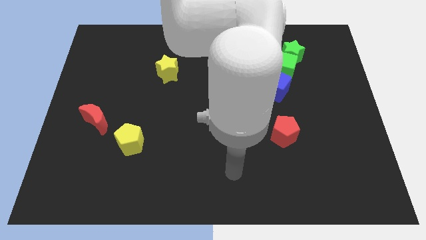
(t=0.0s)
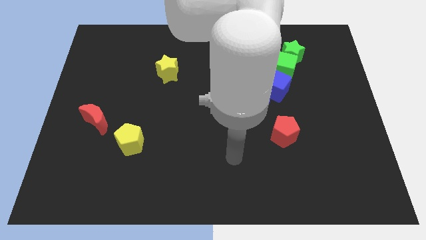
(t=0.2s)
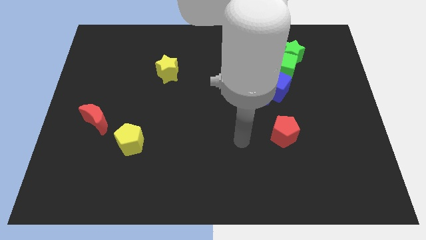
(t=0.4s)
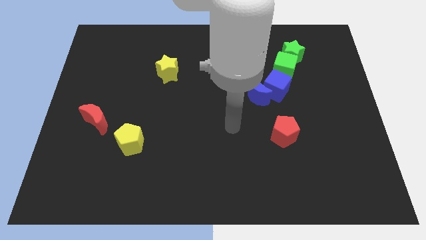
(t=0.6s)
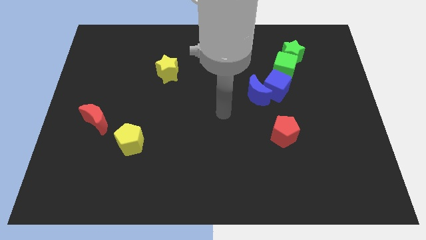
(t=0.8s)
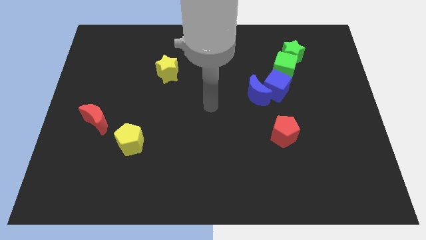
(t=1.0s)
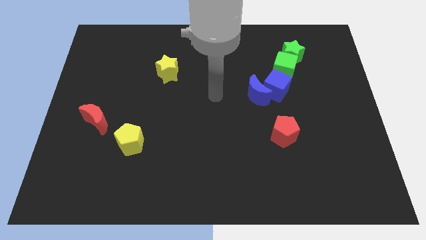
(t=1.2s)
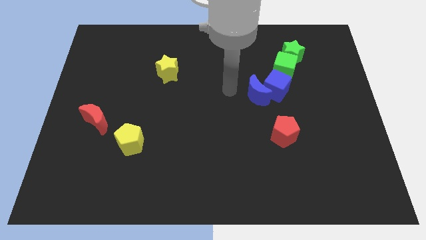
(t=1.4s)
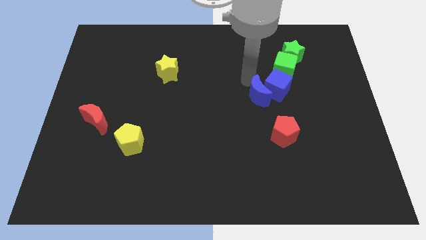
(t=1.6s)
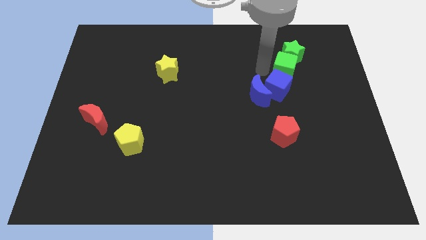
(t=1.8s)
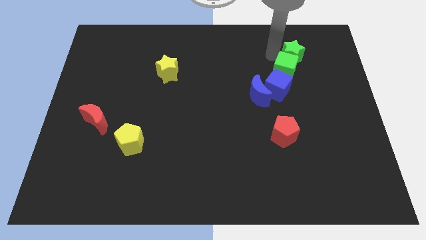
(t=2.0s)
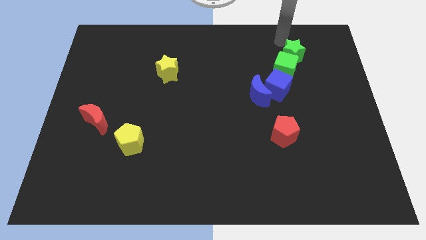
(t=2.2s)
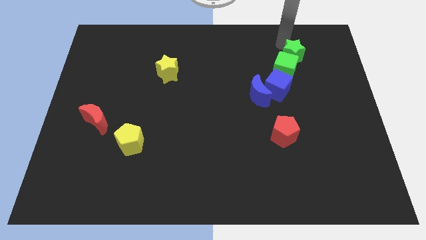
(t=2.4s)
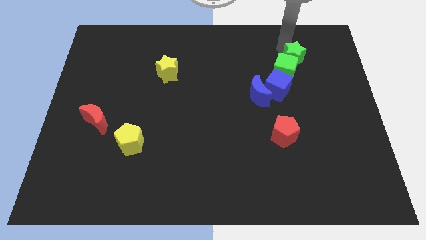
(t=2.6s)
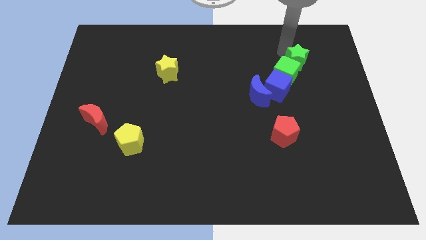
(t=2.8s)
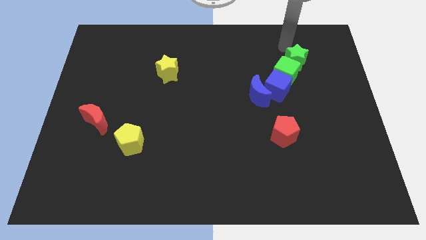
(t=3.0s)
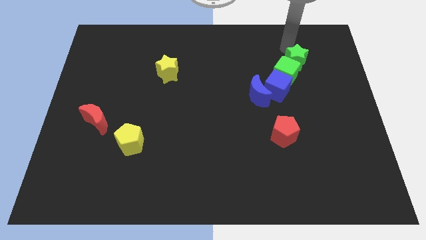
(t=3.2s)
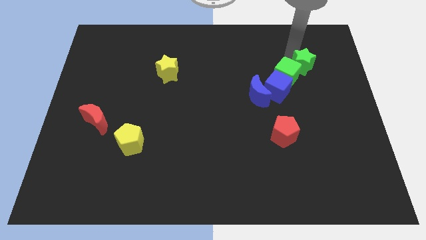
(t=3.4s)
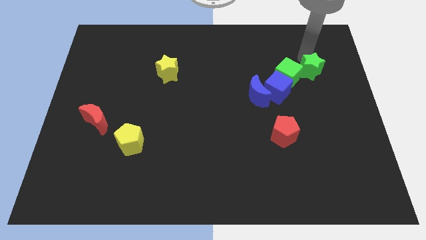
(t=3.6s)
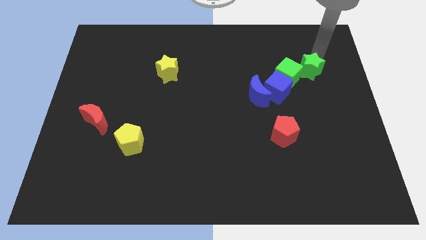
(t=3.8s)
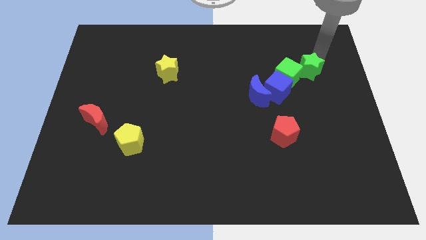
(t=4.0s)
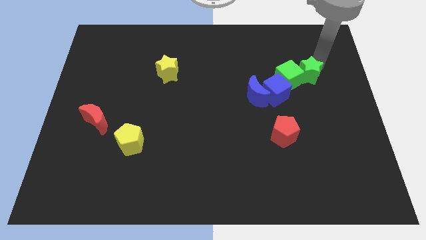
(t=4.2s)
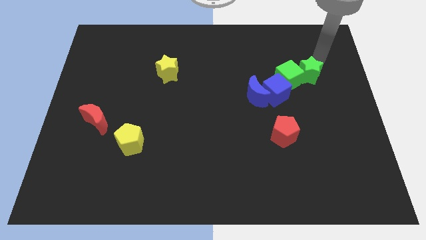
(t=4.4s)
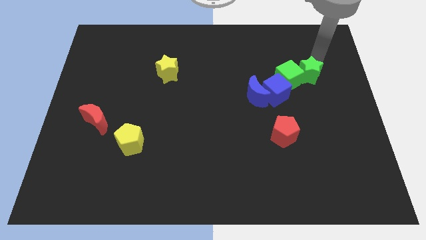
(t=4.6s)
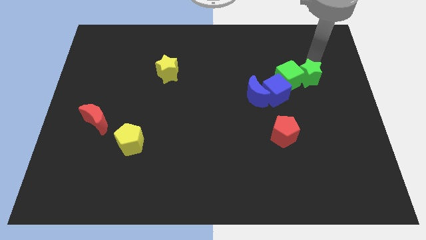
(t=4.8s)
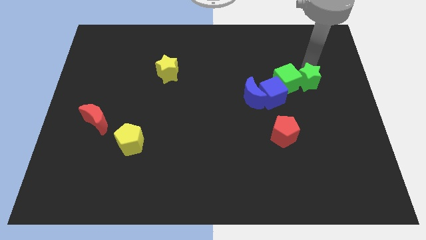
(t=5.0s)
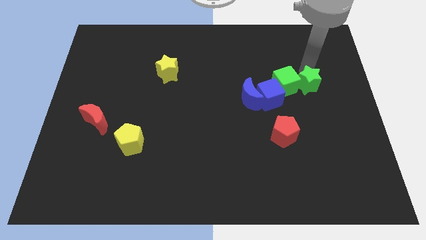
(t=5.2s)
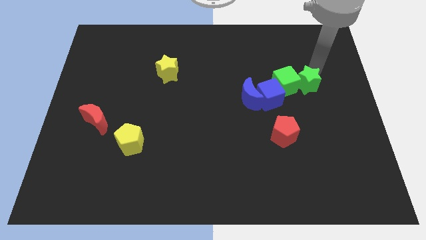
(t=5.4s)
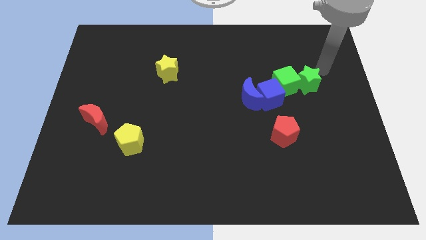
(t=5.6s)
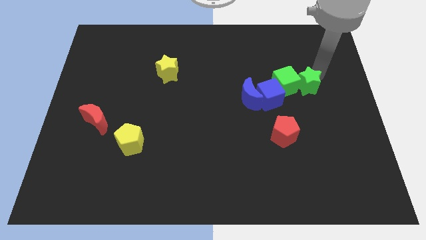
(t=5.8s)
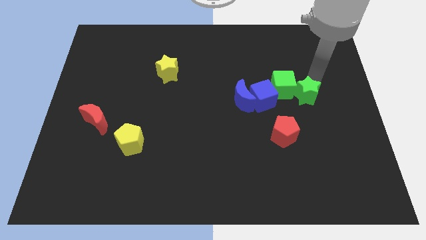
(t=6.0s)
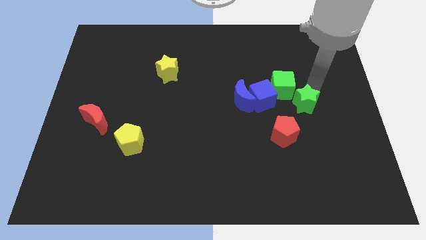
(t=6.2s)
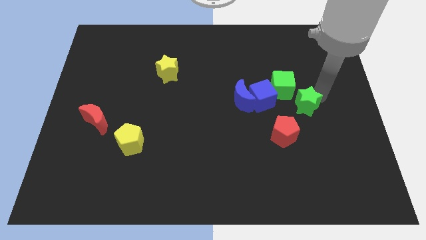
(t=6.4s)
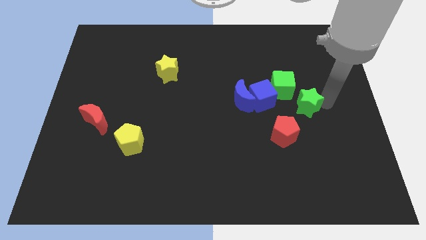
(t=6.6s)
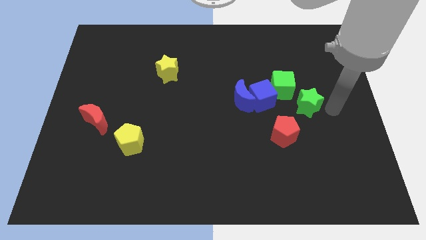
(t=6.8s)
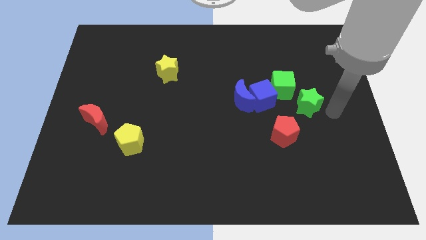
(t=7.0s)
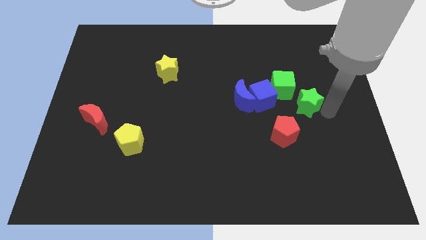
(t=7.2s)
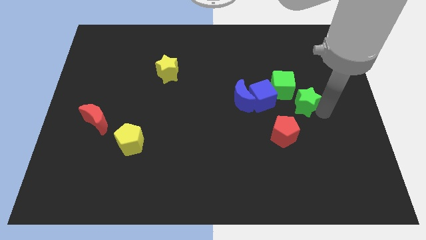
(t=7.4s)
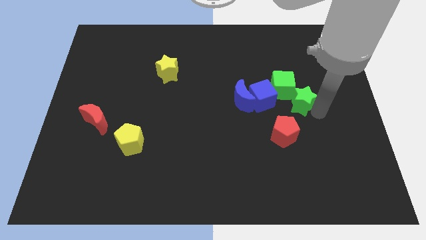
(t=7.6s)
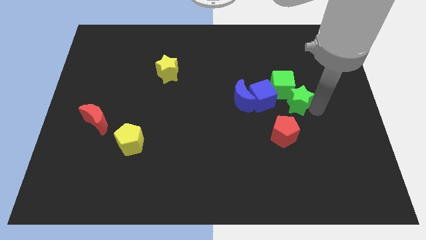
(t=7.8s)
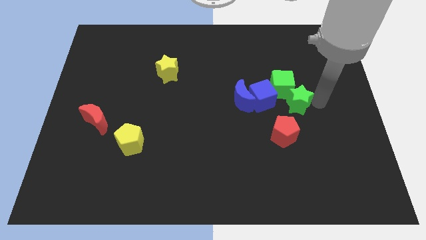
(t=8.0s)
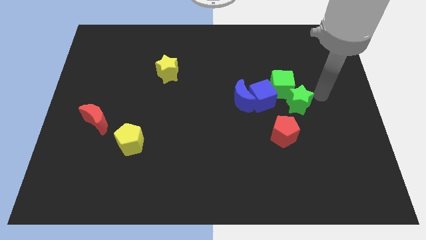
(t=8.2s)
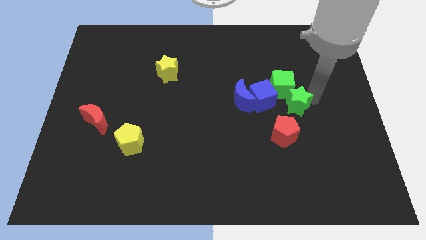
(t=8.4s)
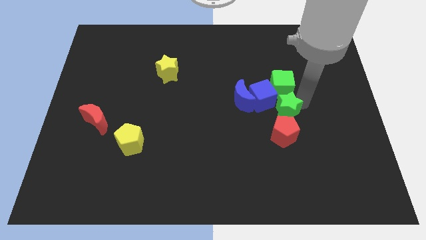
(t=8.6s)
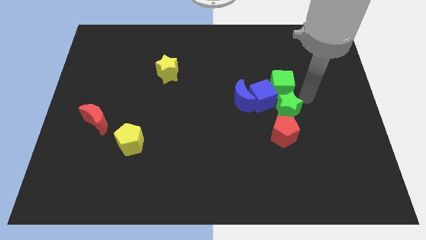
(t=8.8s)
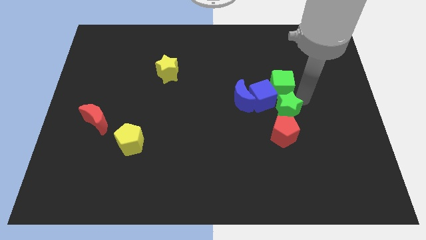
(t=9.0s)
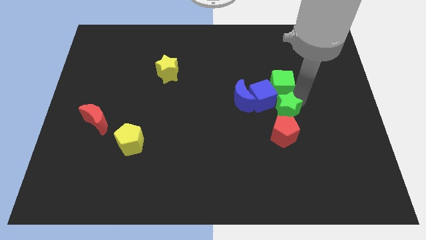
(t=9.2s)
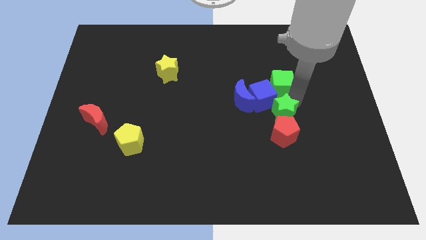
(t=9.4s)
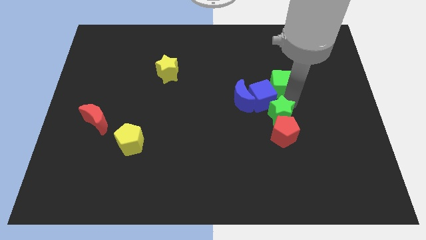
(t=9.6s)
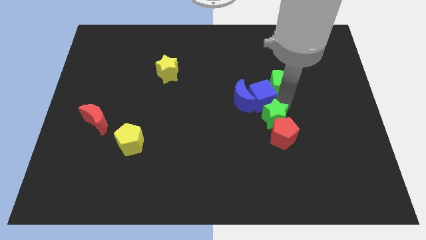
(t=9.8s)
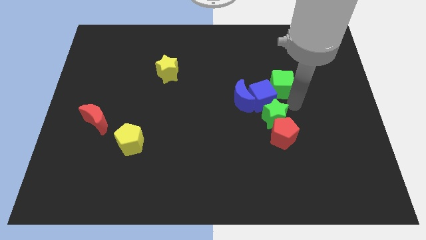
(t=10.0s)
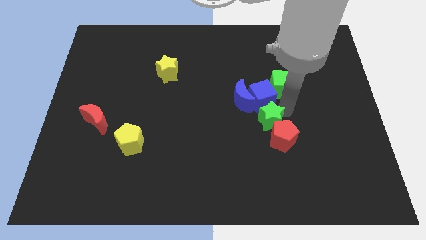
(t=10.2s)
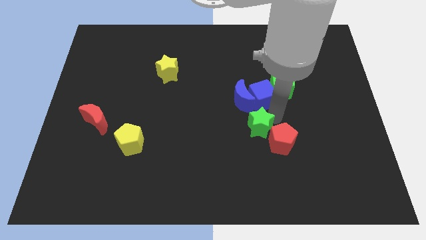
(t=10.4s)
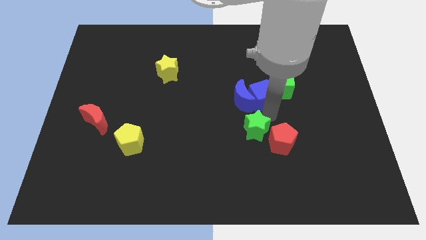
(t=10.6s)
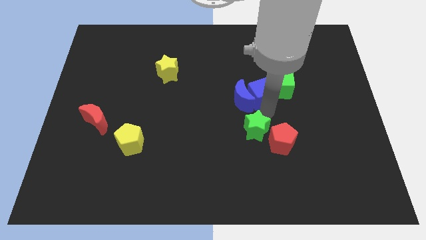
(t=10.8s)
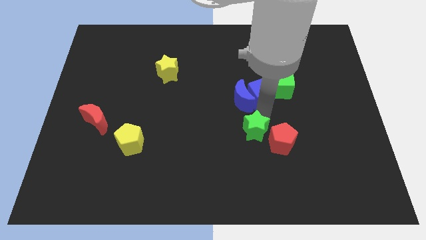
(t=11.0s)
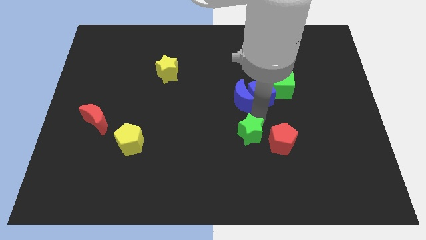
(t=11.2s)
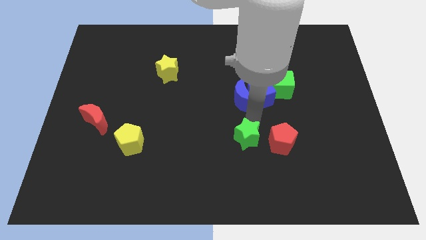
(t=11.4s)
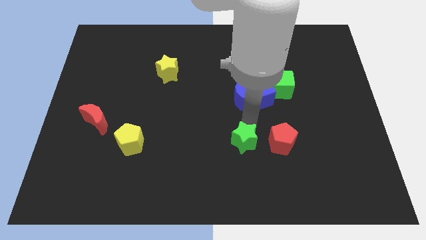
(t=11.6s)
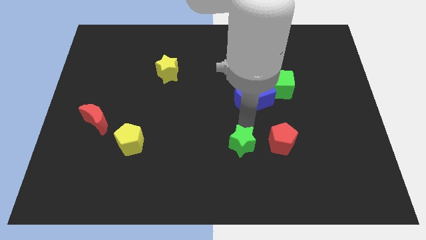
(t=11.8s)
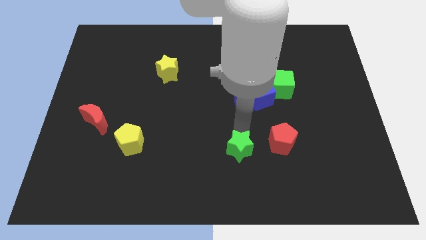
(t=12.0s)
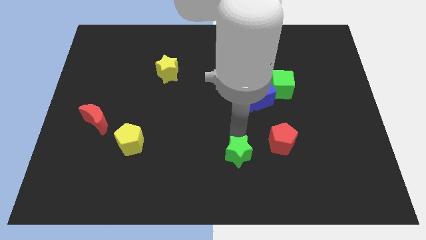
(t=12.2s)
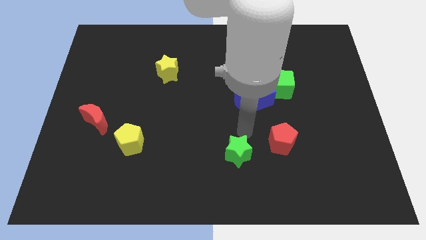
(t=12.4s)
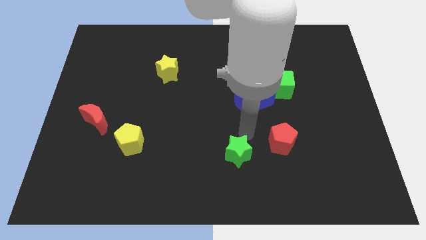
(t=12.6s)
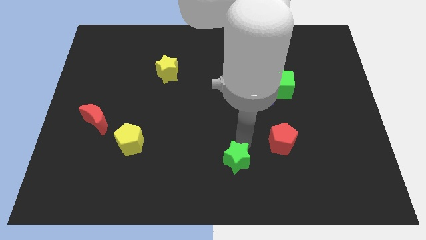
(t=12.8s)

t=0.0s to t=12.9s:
slide the green star to the bottom side
